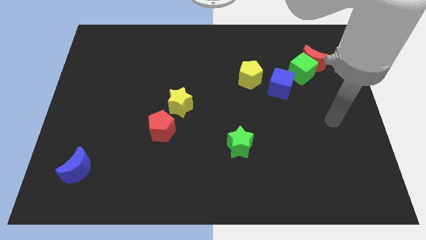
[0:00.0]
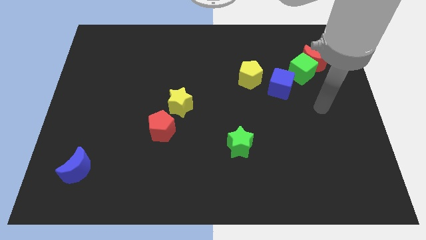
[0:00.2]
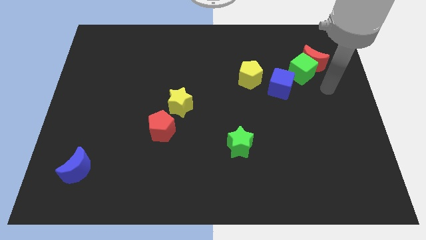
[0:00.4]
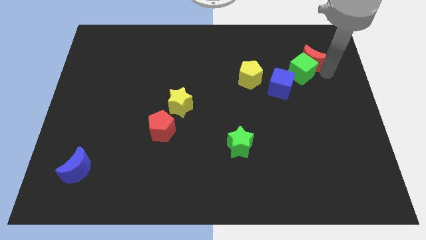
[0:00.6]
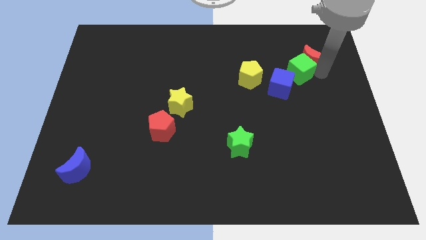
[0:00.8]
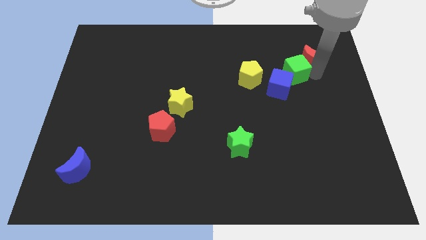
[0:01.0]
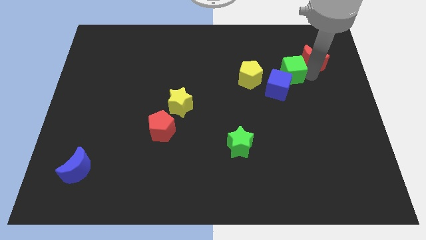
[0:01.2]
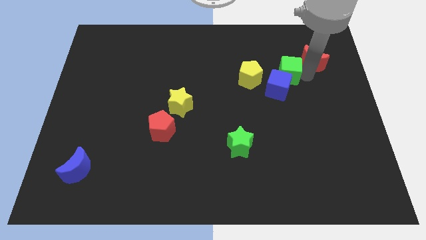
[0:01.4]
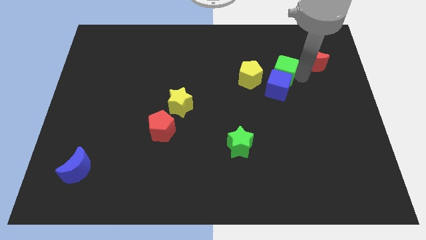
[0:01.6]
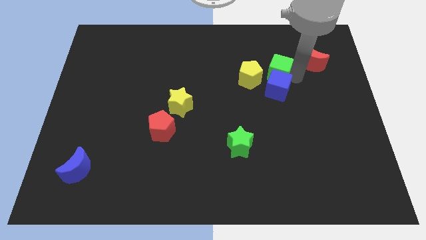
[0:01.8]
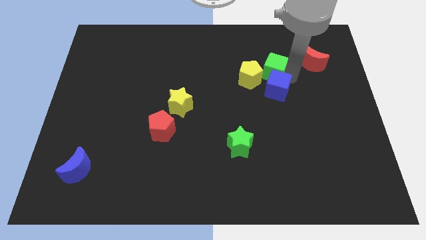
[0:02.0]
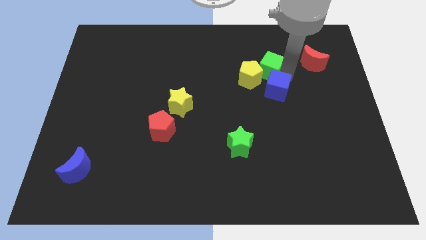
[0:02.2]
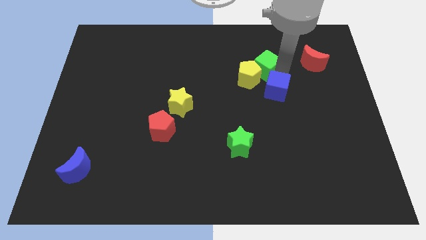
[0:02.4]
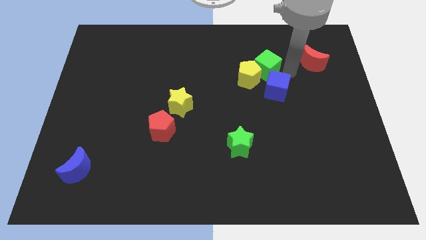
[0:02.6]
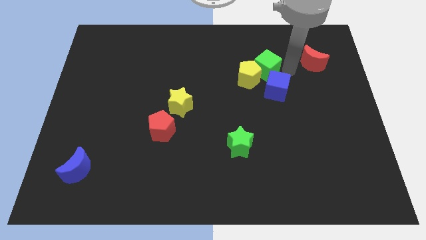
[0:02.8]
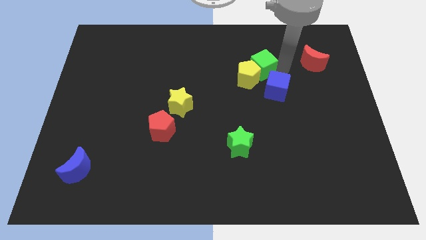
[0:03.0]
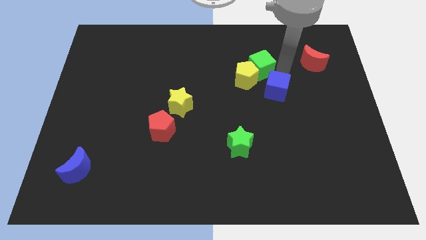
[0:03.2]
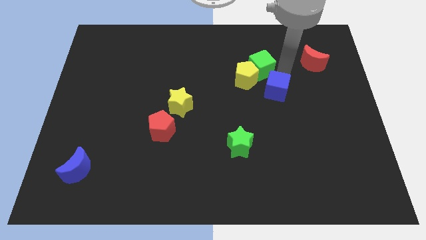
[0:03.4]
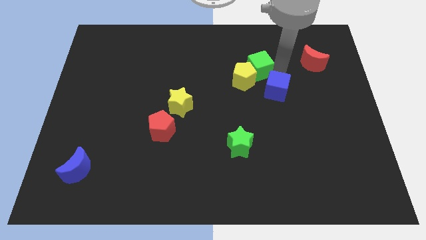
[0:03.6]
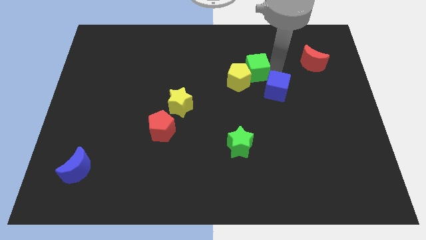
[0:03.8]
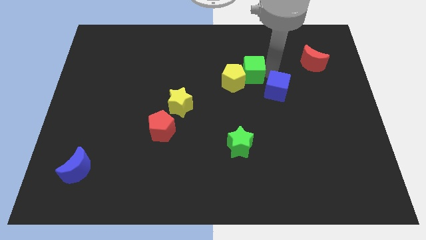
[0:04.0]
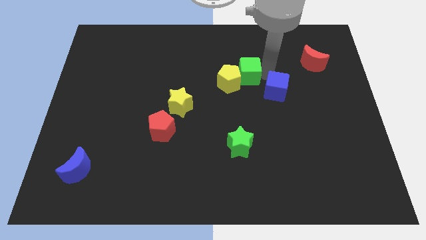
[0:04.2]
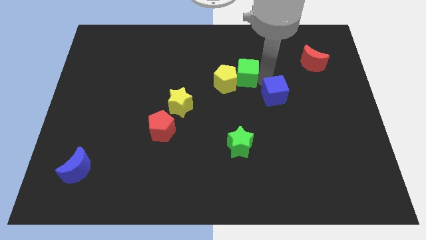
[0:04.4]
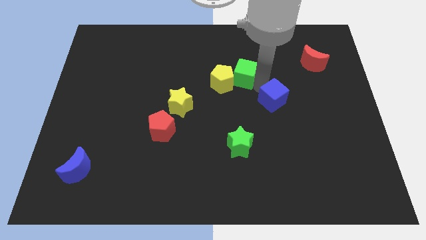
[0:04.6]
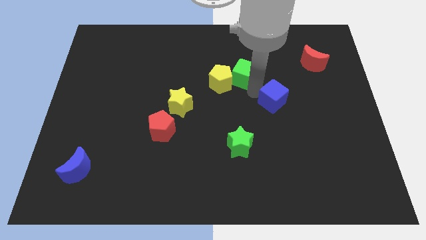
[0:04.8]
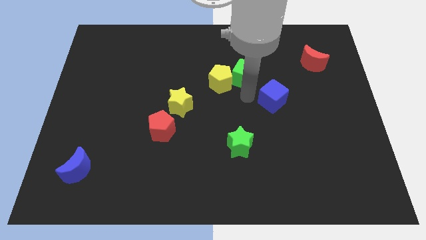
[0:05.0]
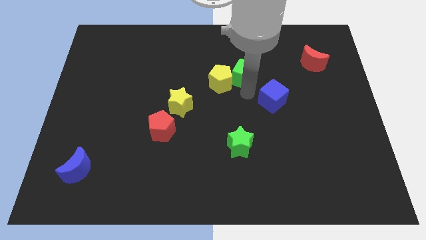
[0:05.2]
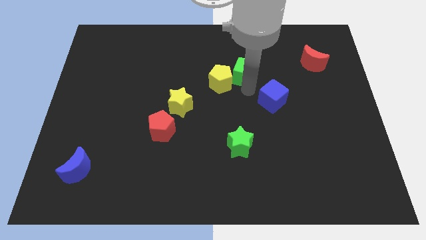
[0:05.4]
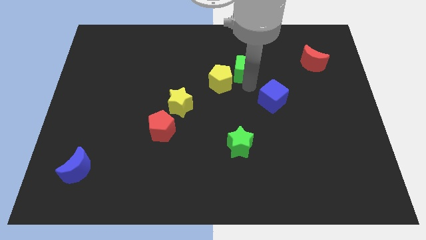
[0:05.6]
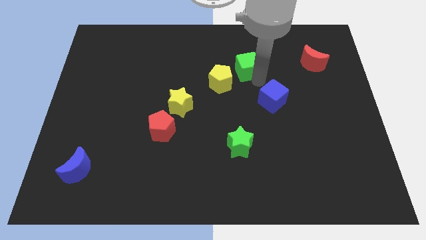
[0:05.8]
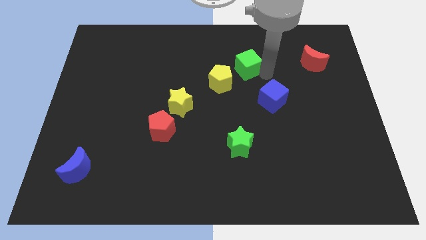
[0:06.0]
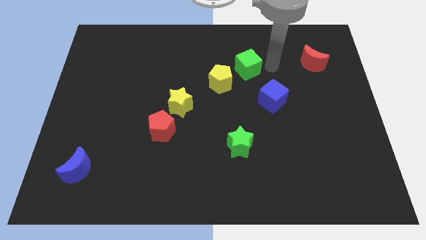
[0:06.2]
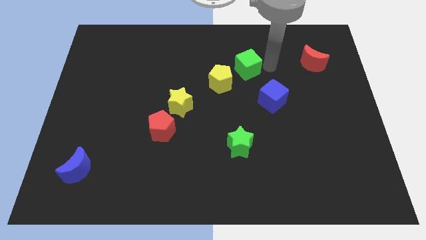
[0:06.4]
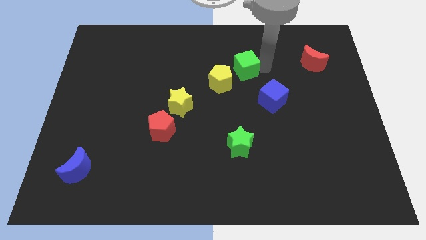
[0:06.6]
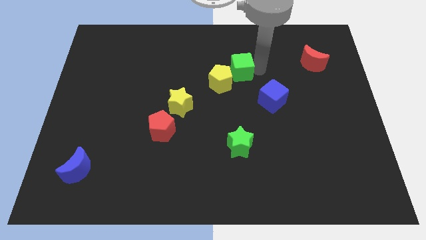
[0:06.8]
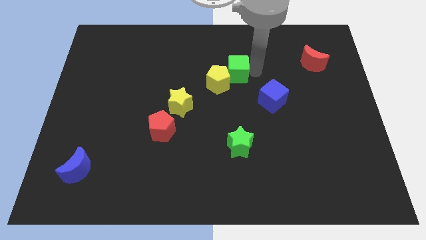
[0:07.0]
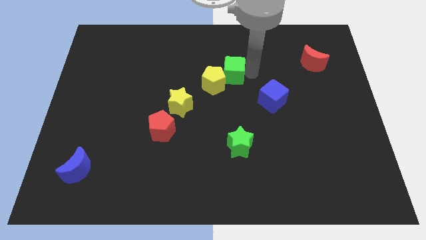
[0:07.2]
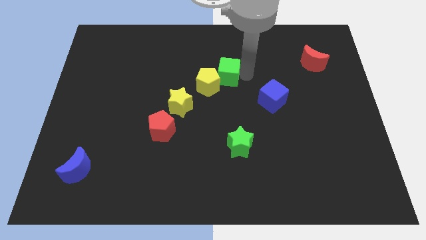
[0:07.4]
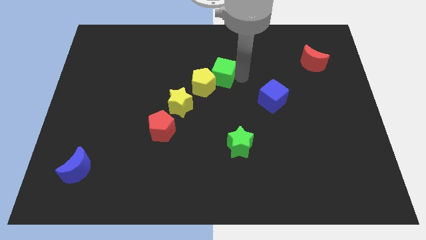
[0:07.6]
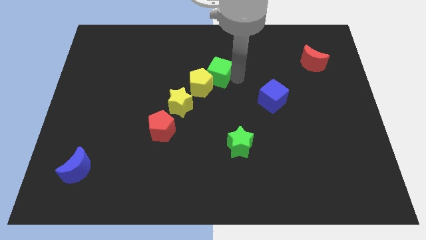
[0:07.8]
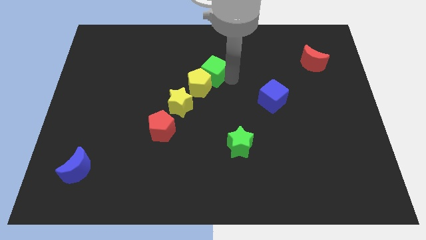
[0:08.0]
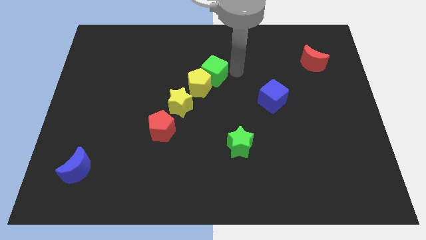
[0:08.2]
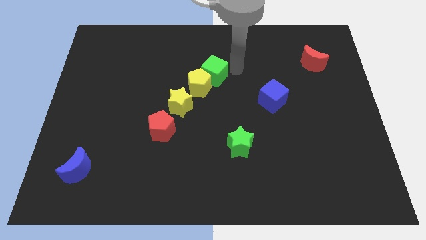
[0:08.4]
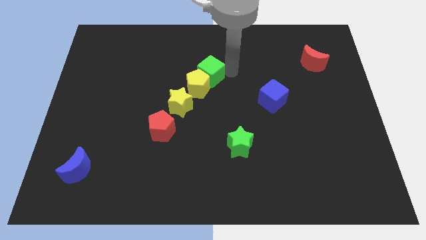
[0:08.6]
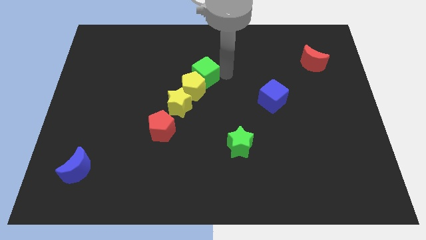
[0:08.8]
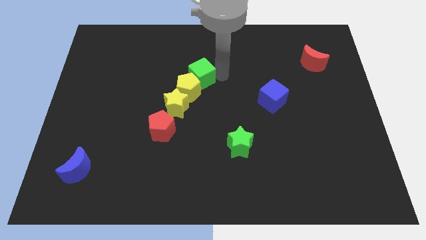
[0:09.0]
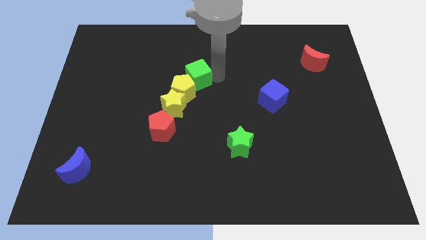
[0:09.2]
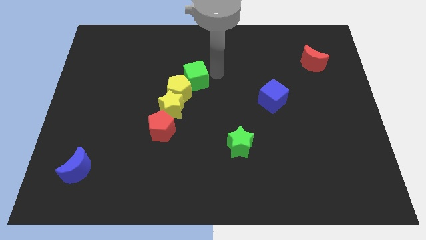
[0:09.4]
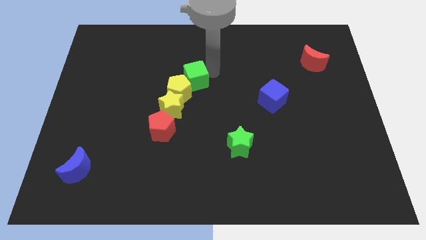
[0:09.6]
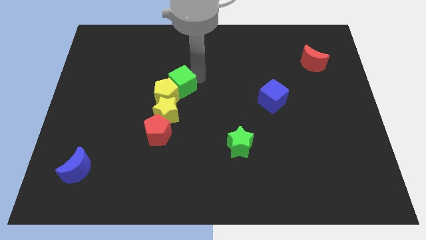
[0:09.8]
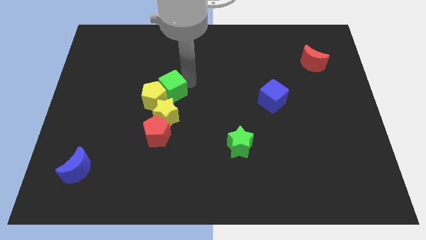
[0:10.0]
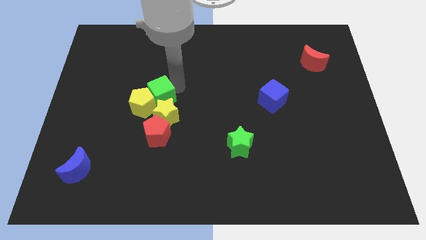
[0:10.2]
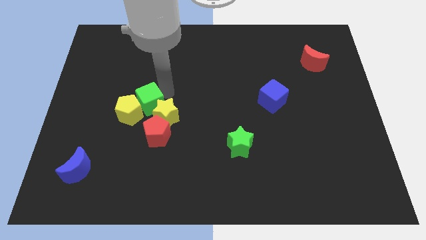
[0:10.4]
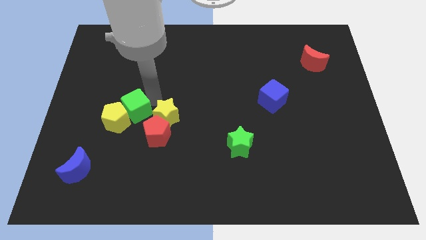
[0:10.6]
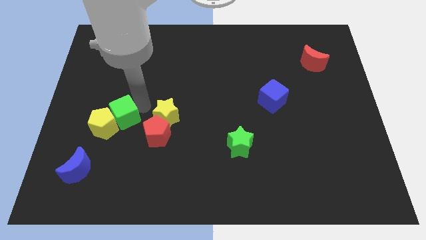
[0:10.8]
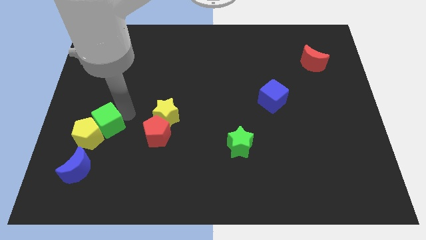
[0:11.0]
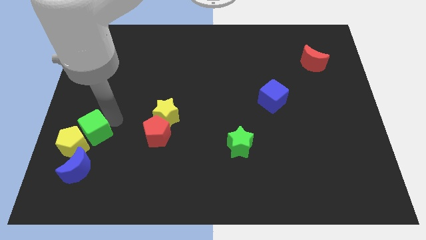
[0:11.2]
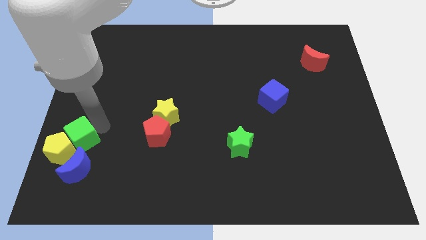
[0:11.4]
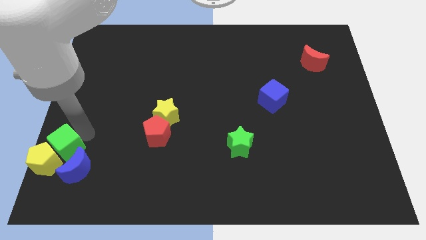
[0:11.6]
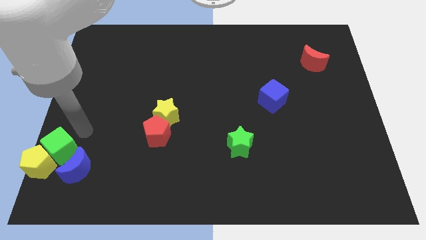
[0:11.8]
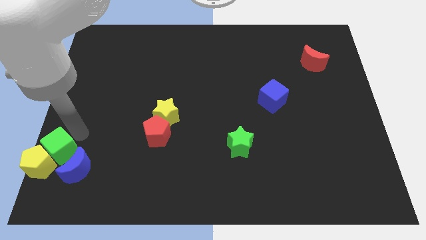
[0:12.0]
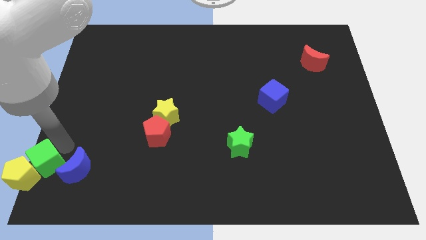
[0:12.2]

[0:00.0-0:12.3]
put the green cube to the bottom left of the board
